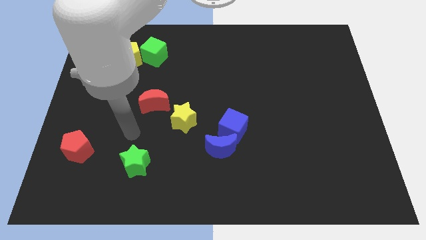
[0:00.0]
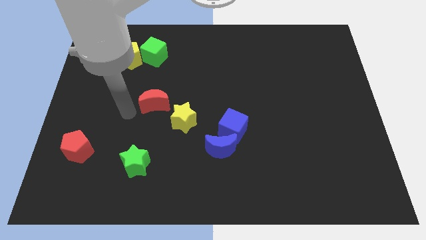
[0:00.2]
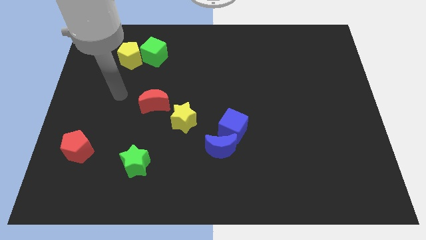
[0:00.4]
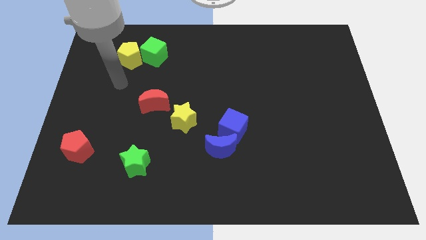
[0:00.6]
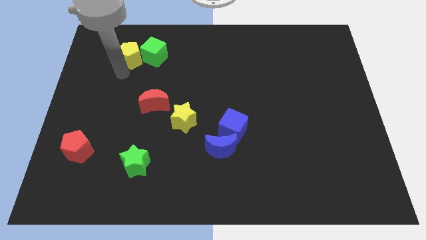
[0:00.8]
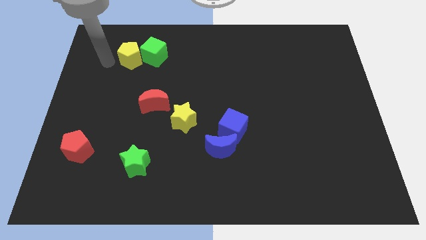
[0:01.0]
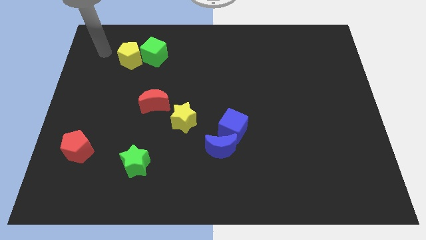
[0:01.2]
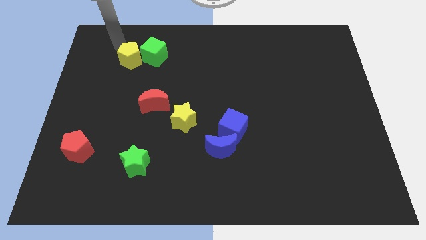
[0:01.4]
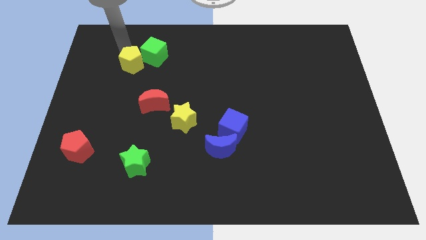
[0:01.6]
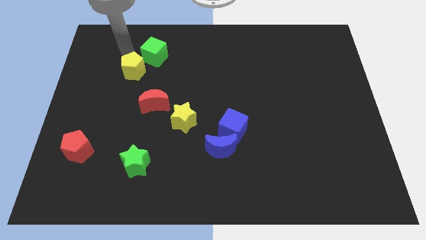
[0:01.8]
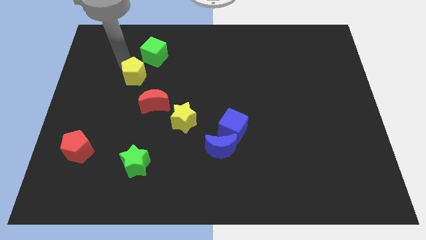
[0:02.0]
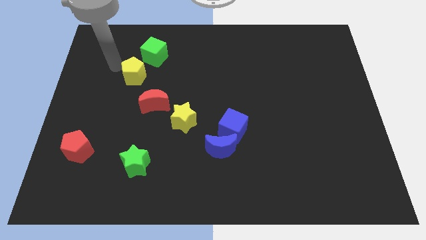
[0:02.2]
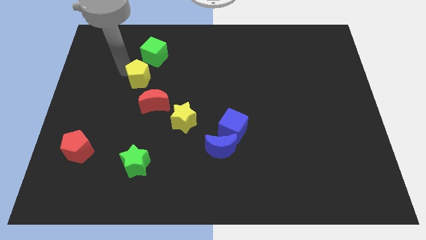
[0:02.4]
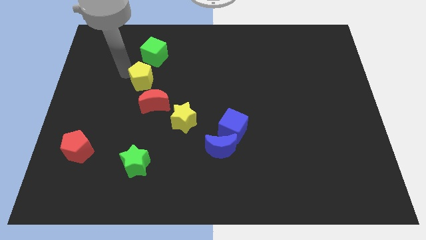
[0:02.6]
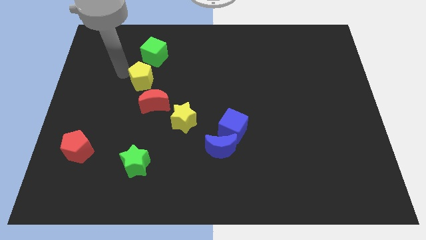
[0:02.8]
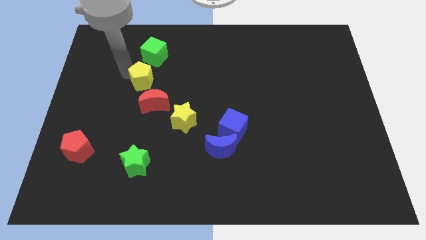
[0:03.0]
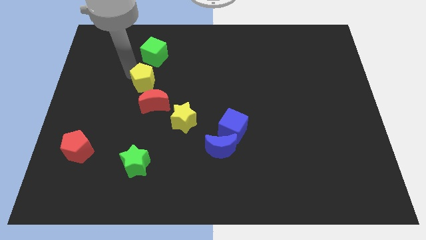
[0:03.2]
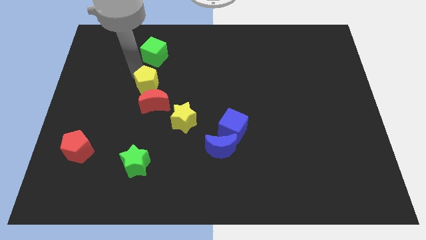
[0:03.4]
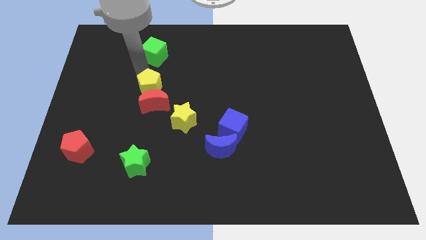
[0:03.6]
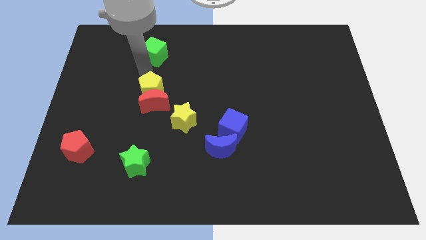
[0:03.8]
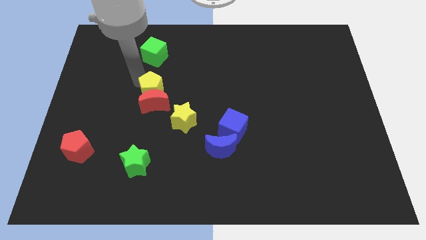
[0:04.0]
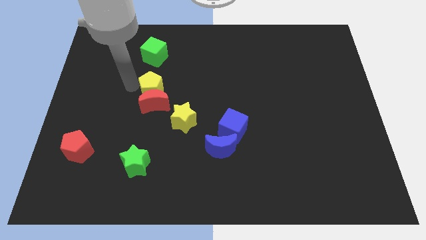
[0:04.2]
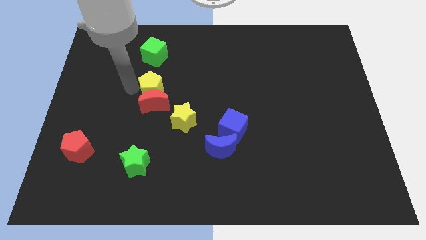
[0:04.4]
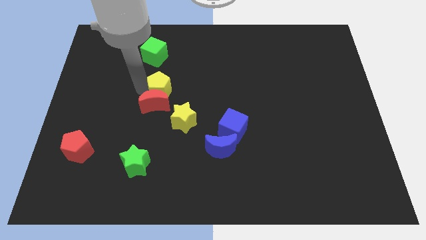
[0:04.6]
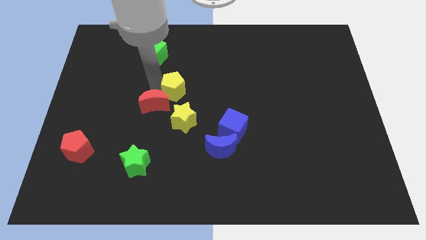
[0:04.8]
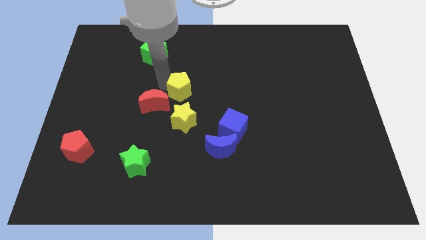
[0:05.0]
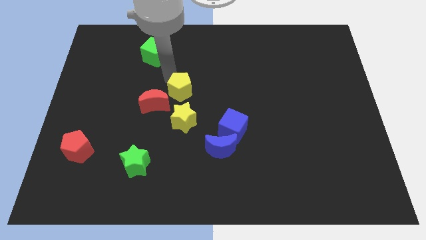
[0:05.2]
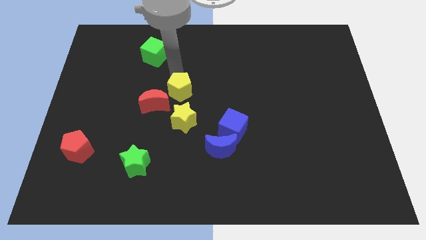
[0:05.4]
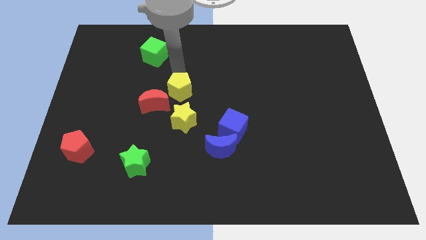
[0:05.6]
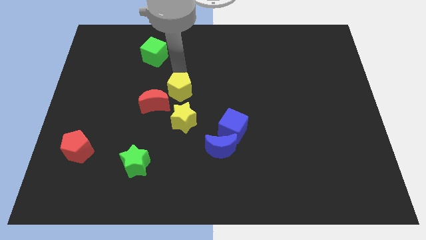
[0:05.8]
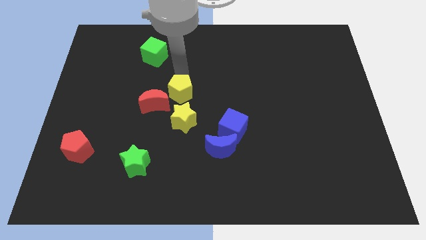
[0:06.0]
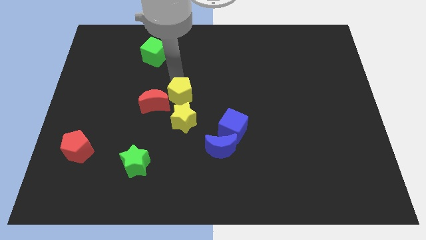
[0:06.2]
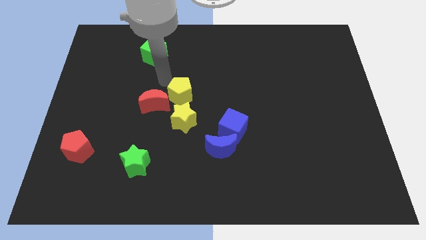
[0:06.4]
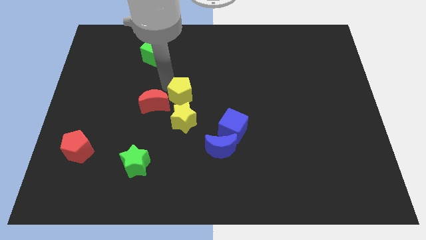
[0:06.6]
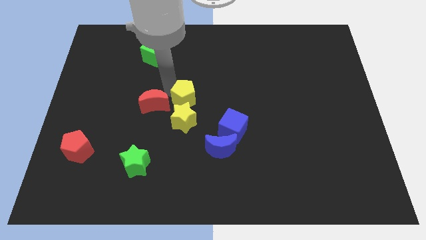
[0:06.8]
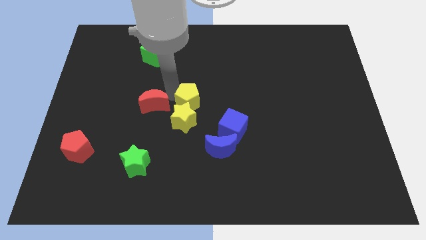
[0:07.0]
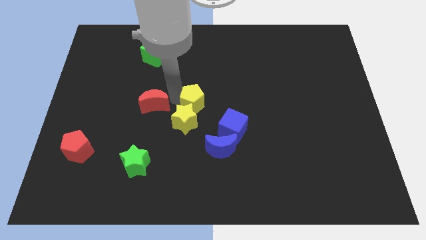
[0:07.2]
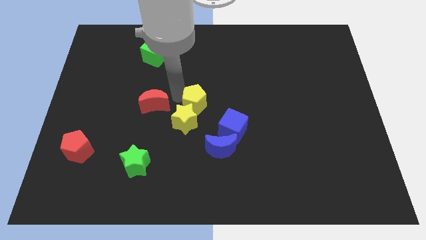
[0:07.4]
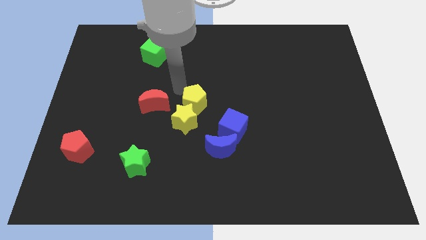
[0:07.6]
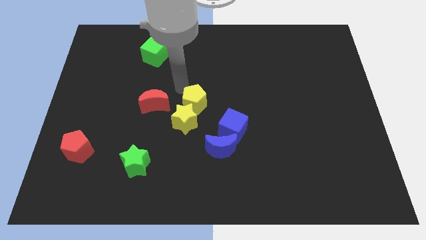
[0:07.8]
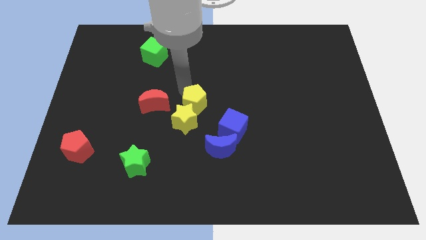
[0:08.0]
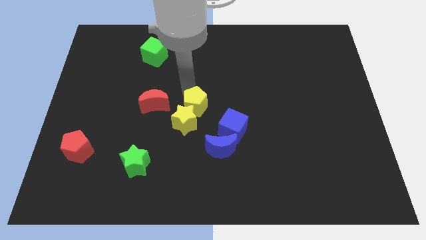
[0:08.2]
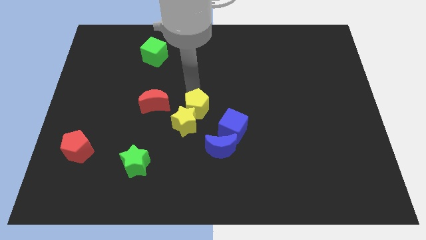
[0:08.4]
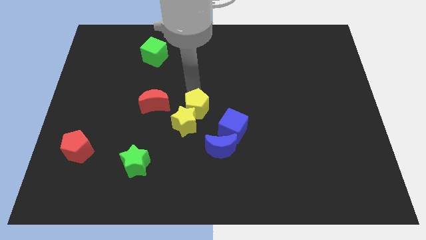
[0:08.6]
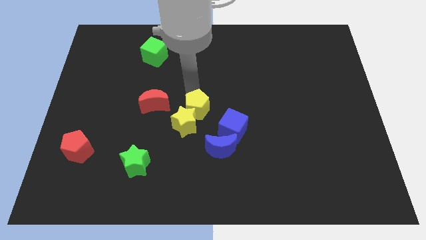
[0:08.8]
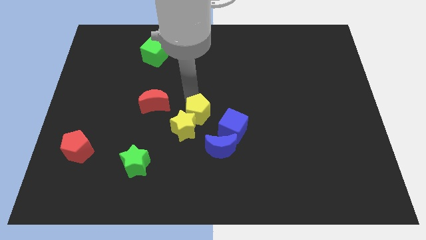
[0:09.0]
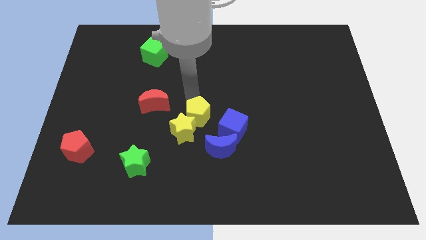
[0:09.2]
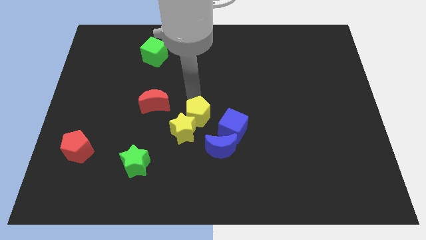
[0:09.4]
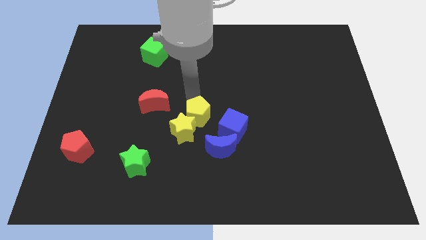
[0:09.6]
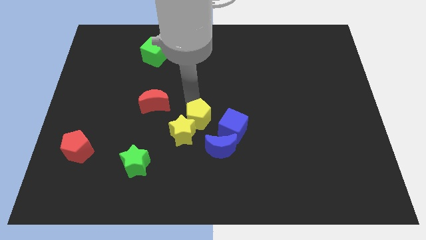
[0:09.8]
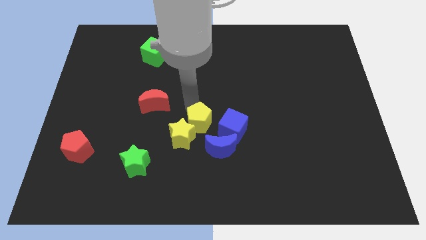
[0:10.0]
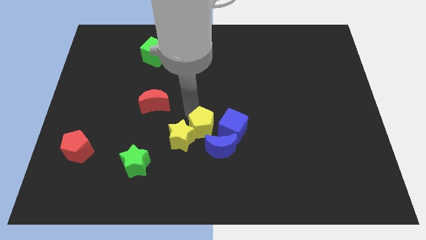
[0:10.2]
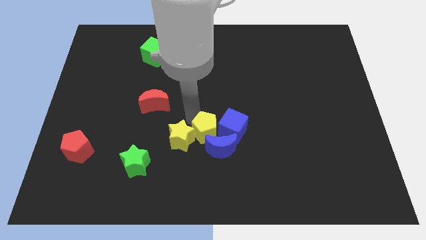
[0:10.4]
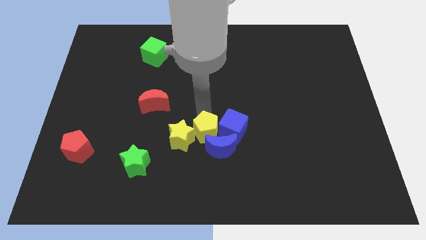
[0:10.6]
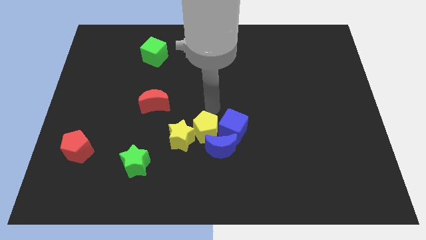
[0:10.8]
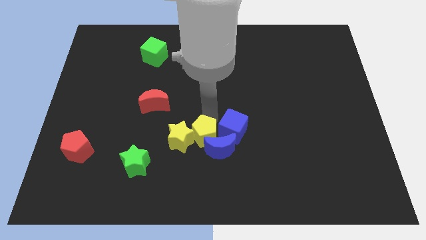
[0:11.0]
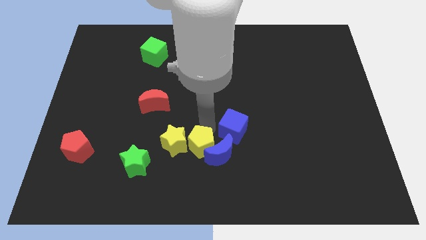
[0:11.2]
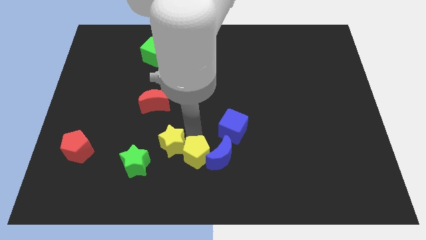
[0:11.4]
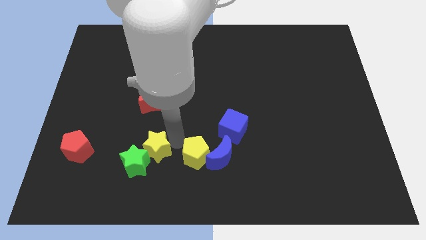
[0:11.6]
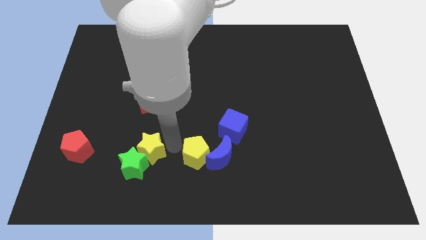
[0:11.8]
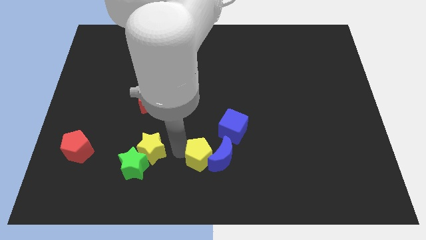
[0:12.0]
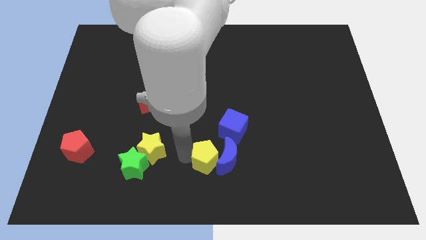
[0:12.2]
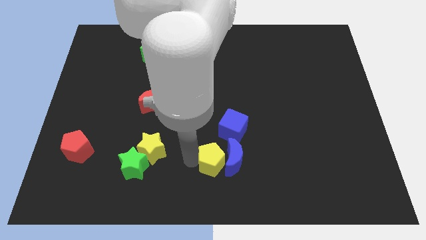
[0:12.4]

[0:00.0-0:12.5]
move the yellow pentagon below the blue cube

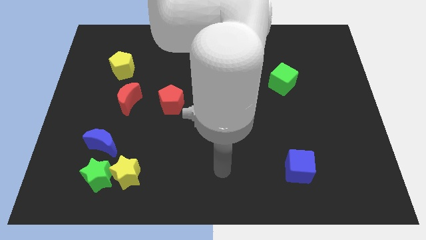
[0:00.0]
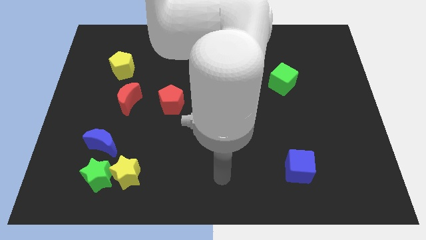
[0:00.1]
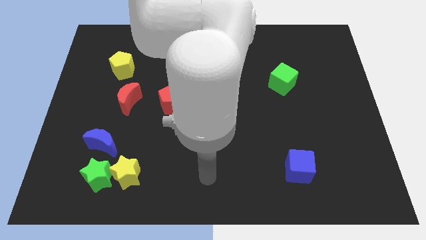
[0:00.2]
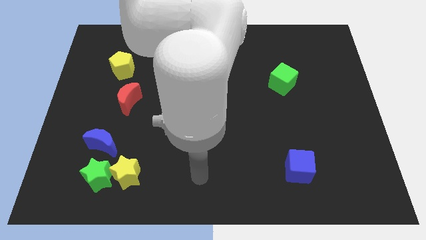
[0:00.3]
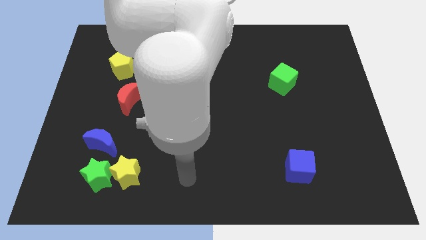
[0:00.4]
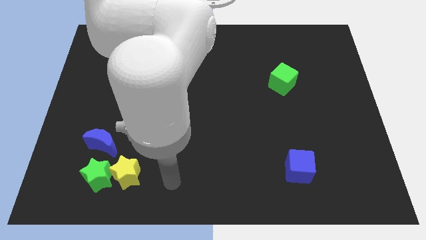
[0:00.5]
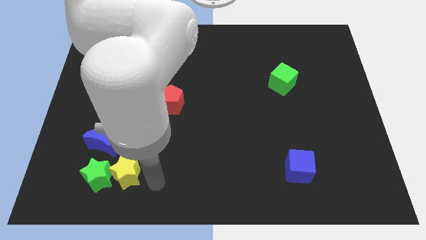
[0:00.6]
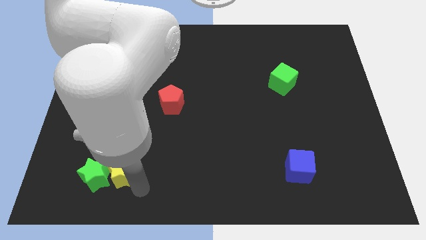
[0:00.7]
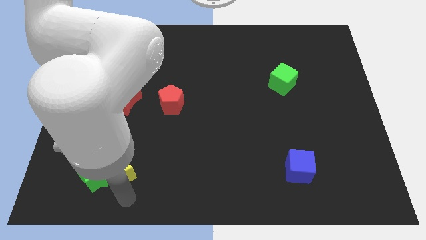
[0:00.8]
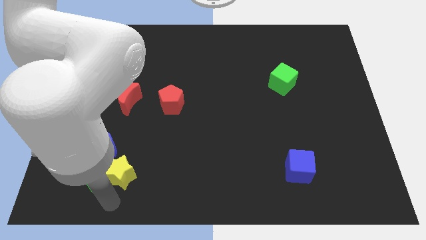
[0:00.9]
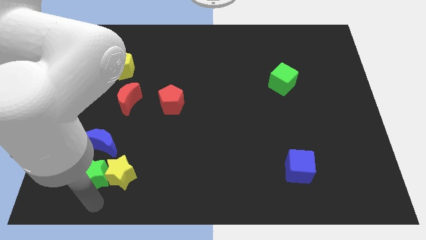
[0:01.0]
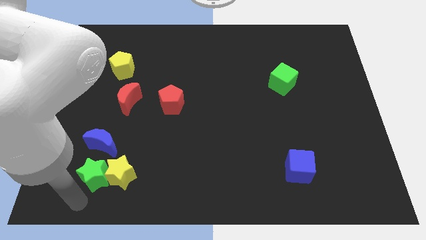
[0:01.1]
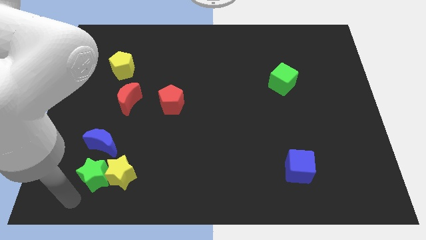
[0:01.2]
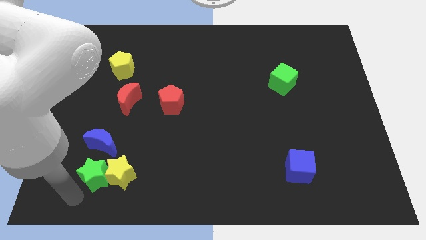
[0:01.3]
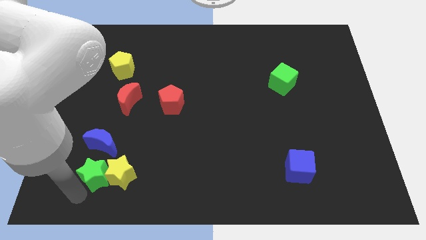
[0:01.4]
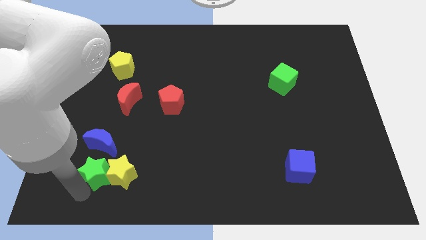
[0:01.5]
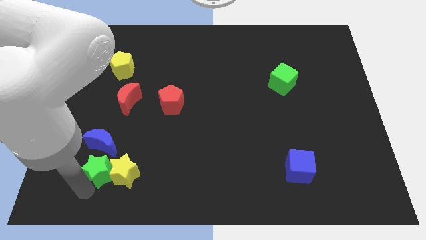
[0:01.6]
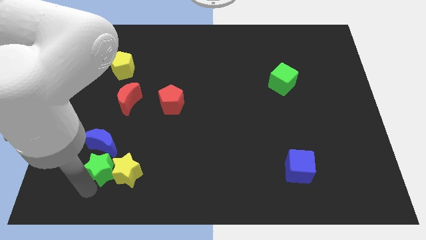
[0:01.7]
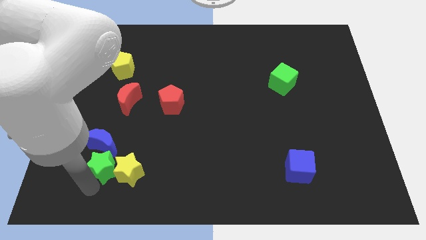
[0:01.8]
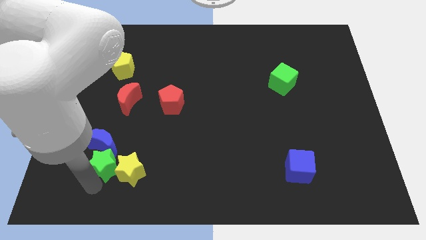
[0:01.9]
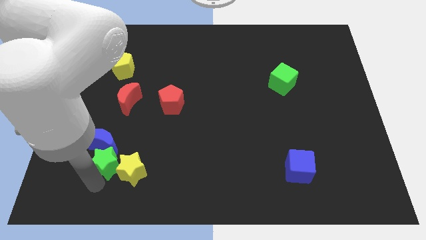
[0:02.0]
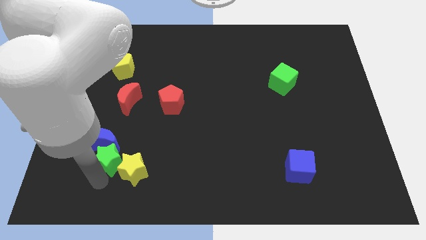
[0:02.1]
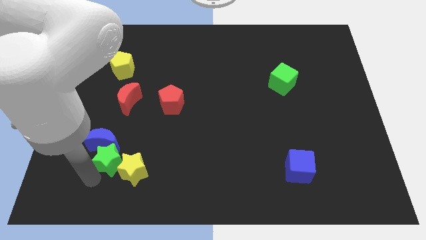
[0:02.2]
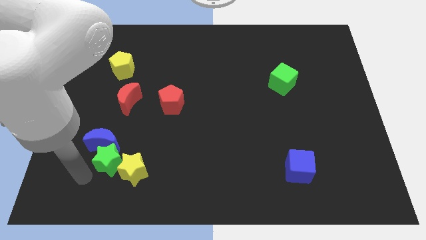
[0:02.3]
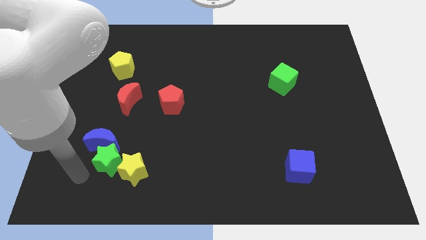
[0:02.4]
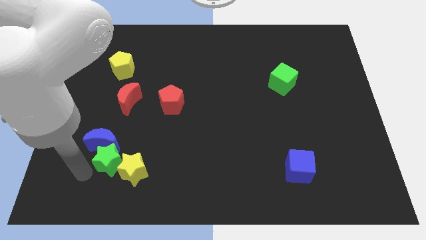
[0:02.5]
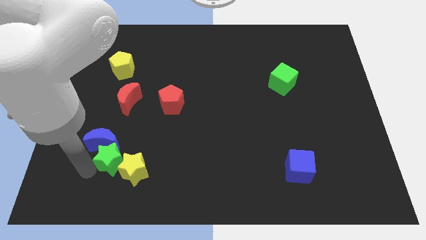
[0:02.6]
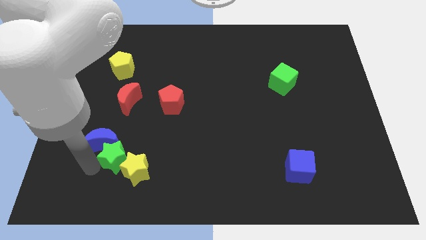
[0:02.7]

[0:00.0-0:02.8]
push the green star to the right of the blue moon
